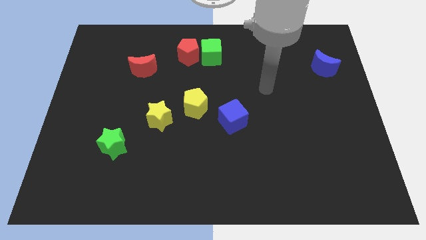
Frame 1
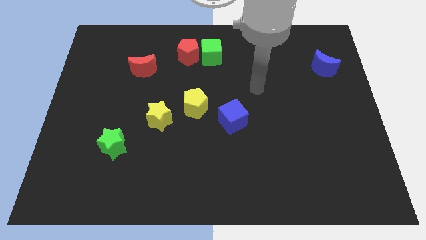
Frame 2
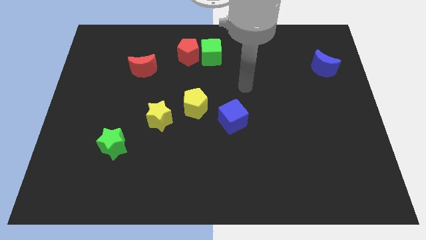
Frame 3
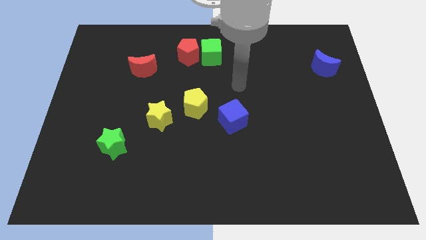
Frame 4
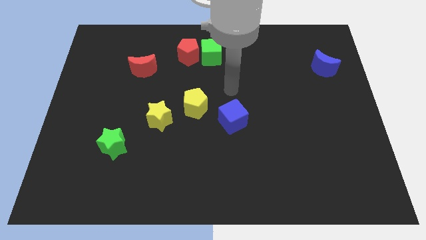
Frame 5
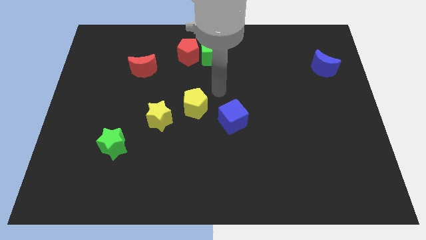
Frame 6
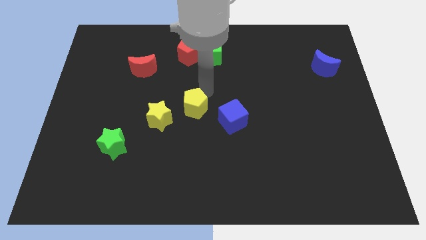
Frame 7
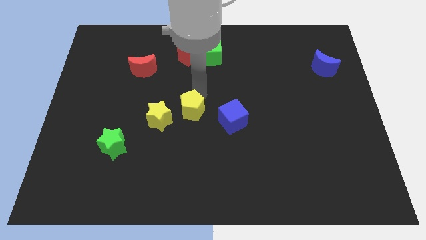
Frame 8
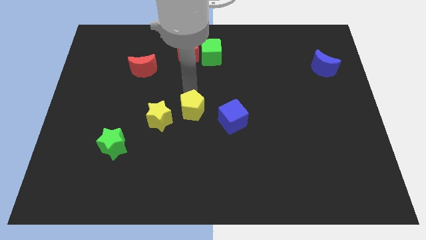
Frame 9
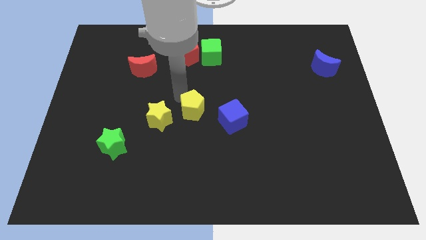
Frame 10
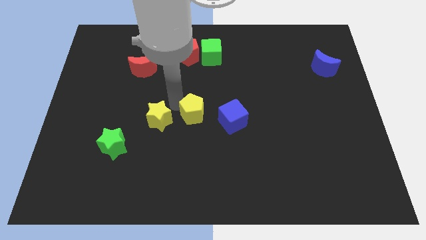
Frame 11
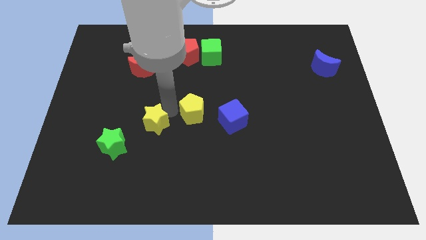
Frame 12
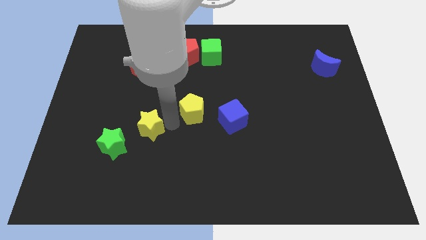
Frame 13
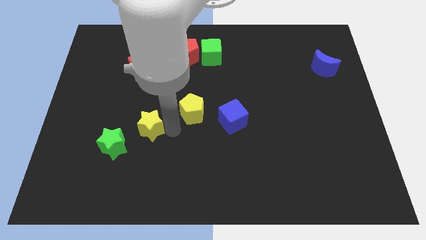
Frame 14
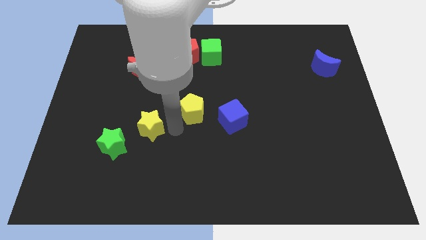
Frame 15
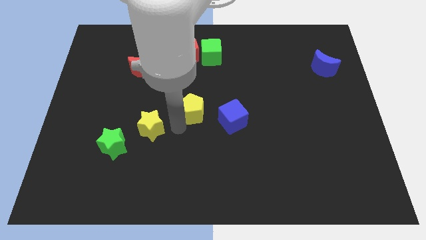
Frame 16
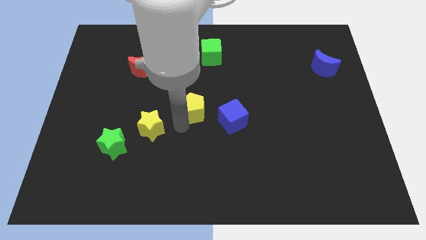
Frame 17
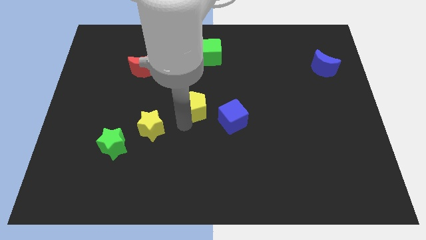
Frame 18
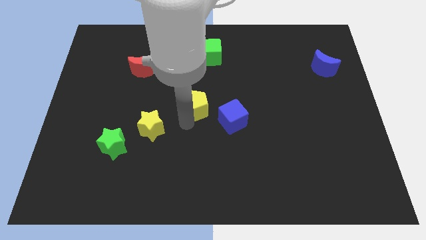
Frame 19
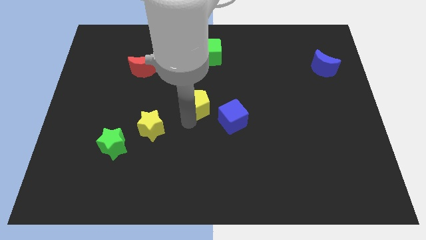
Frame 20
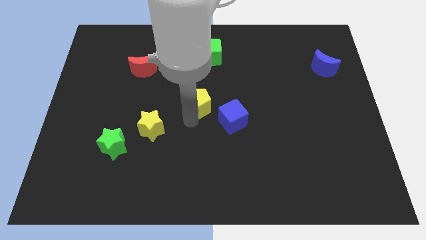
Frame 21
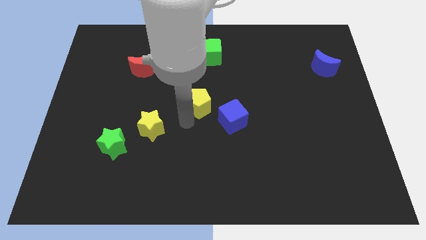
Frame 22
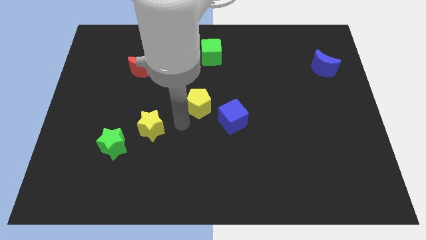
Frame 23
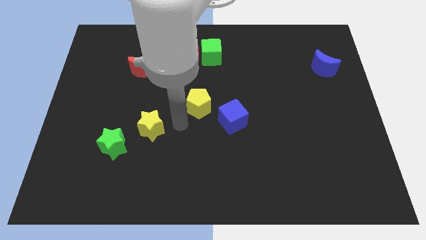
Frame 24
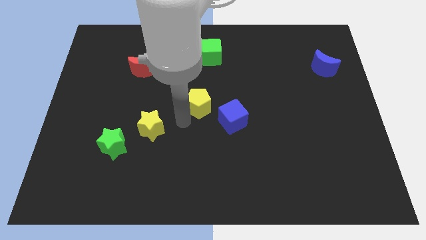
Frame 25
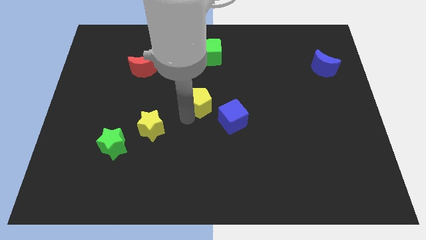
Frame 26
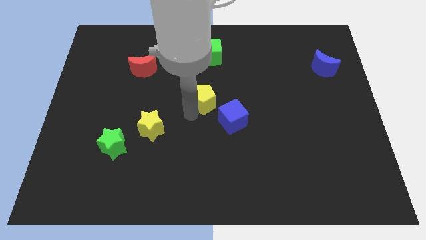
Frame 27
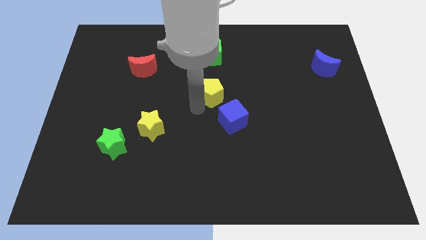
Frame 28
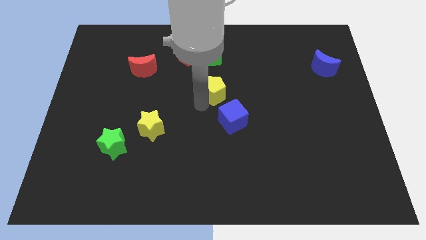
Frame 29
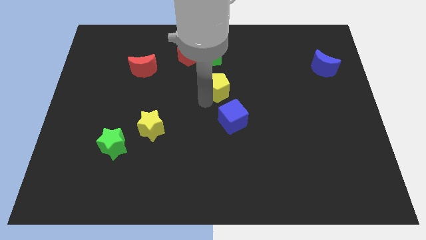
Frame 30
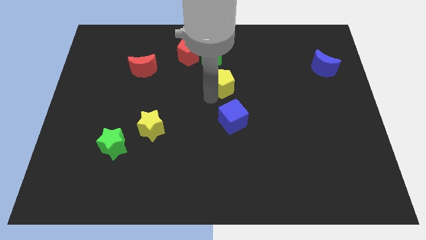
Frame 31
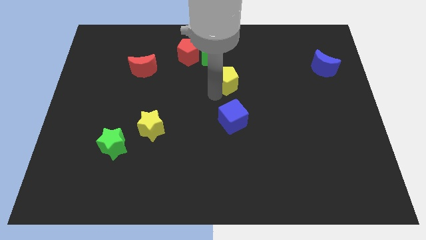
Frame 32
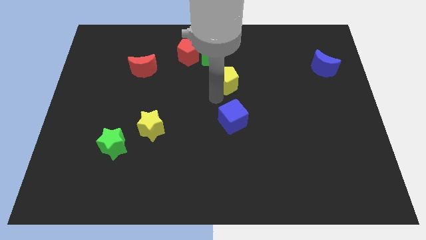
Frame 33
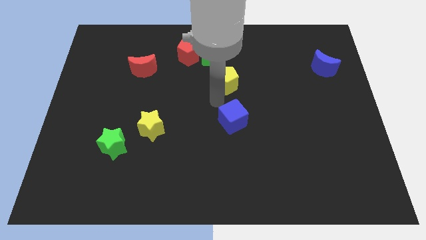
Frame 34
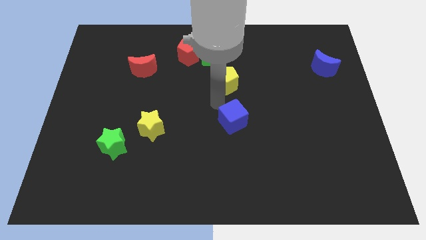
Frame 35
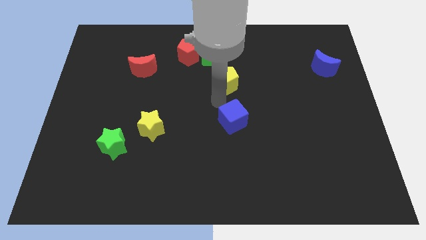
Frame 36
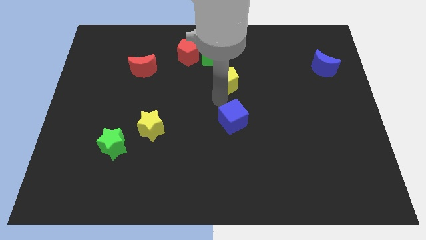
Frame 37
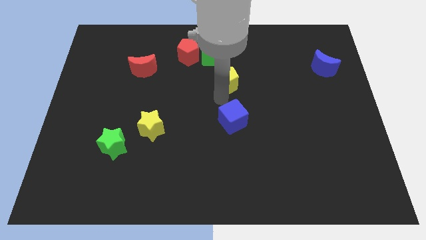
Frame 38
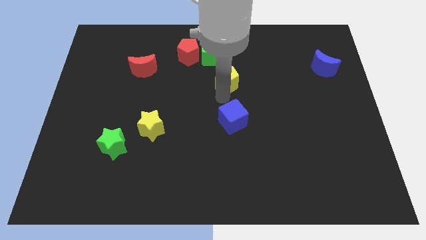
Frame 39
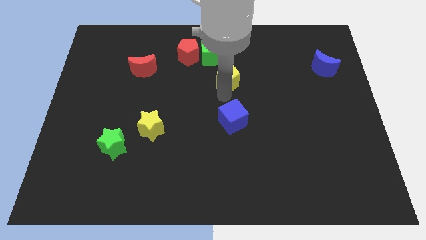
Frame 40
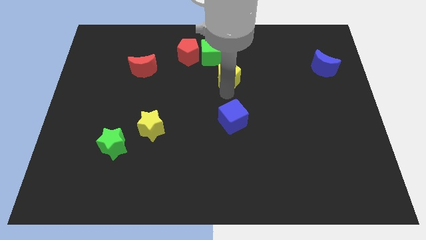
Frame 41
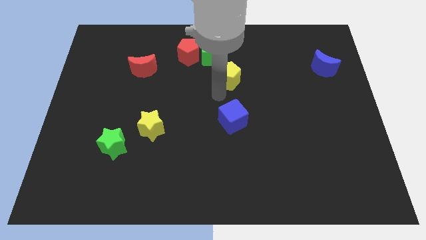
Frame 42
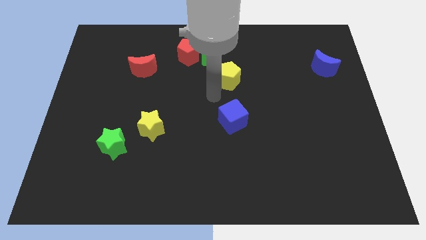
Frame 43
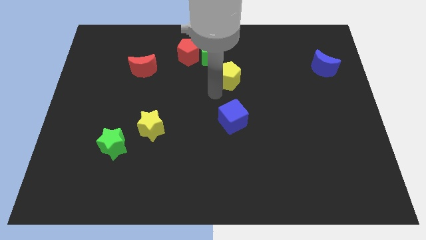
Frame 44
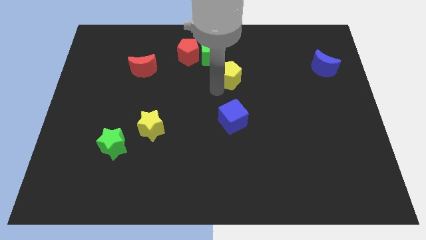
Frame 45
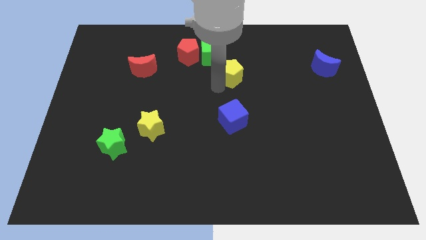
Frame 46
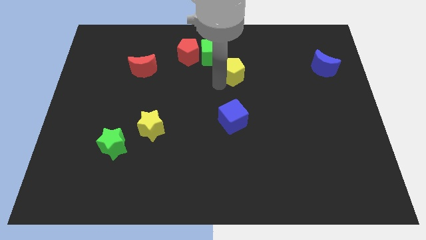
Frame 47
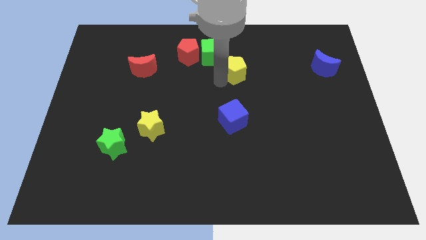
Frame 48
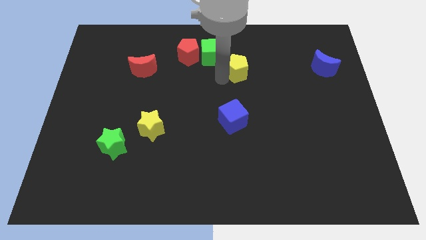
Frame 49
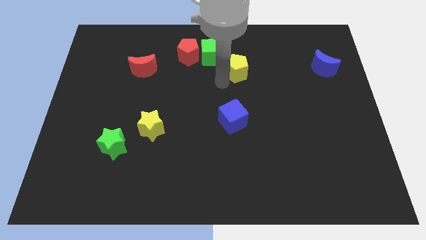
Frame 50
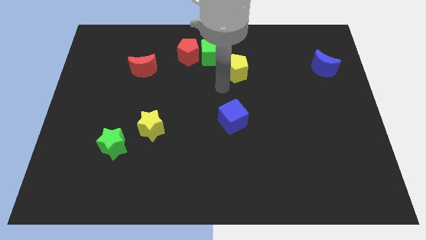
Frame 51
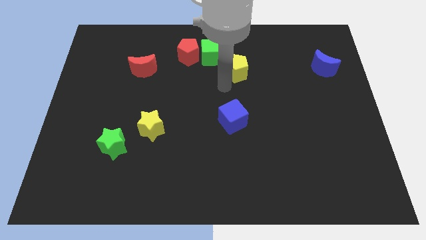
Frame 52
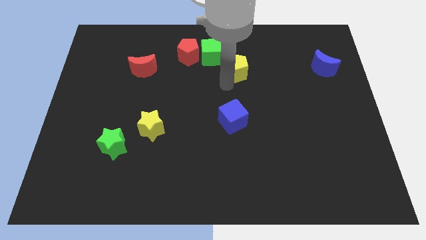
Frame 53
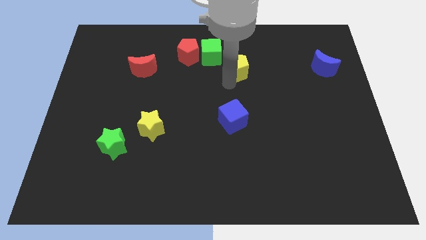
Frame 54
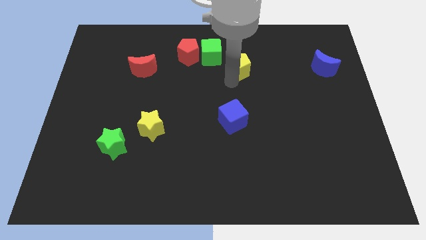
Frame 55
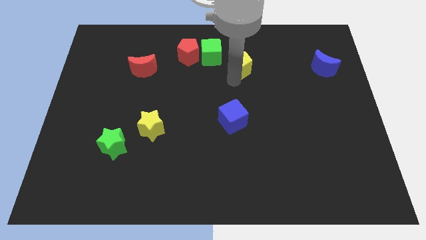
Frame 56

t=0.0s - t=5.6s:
move the yellow pentagon right of the green cube

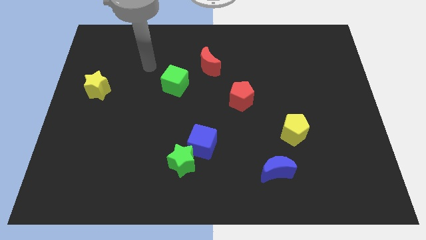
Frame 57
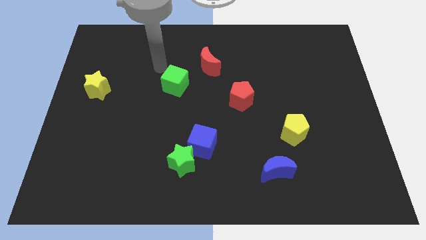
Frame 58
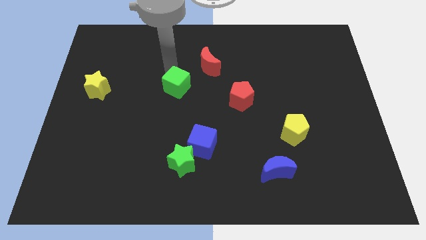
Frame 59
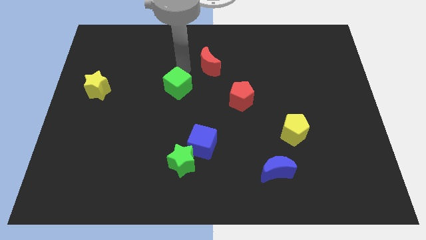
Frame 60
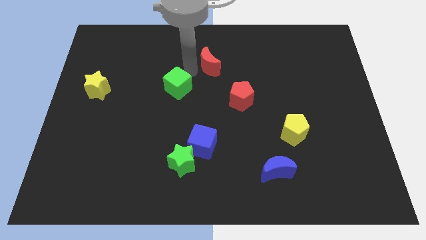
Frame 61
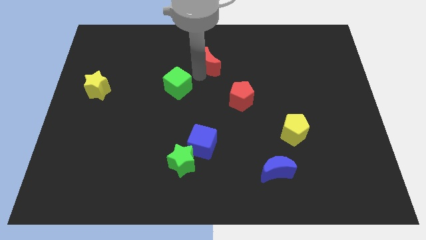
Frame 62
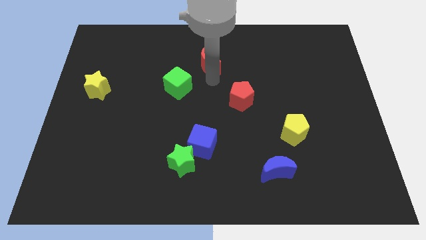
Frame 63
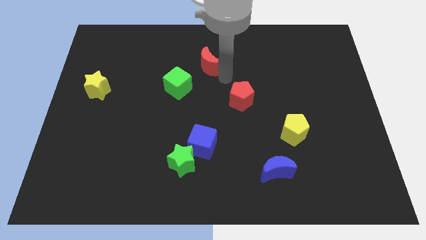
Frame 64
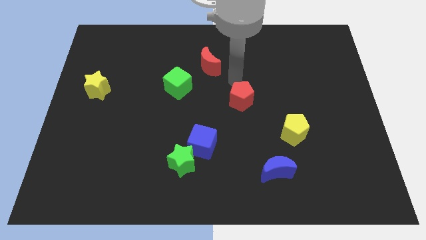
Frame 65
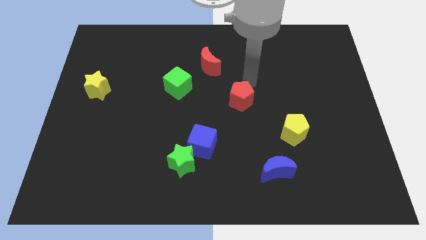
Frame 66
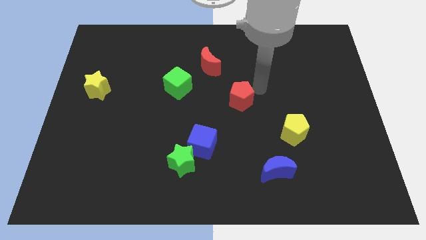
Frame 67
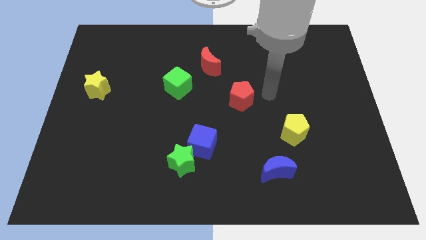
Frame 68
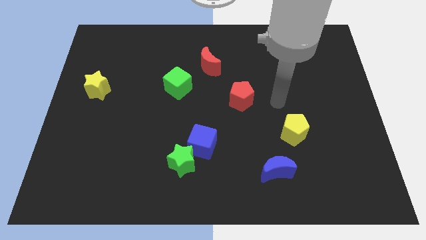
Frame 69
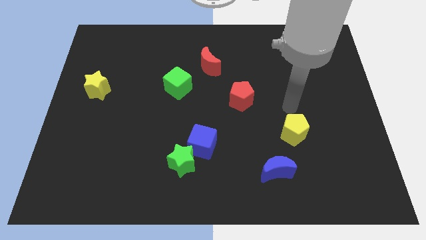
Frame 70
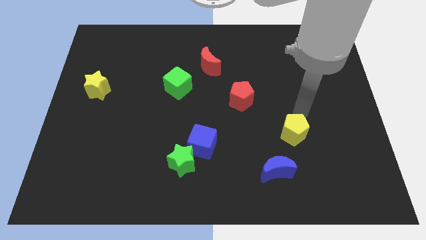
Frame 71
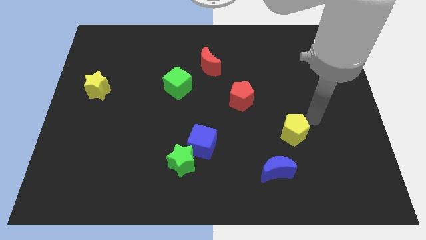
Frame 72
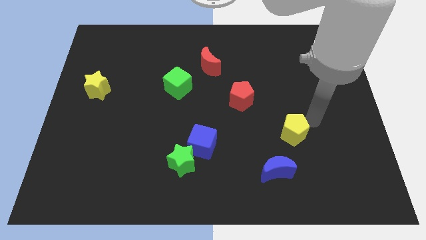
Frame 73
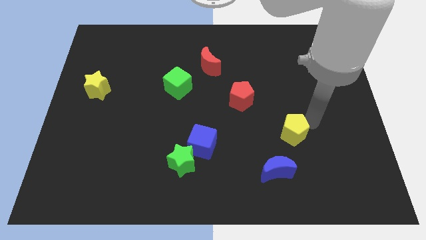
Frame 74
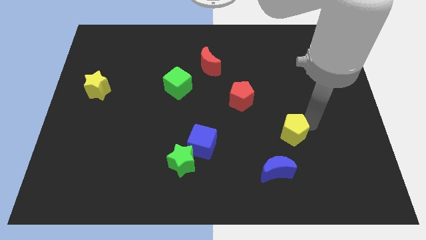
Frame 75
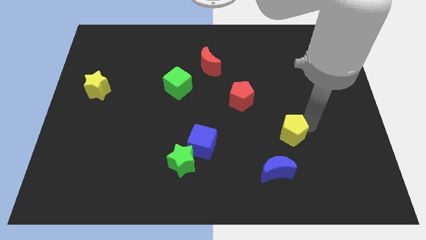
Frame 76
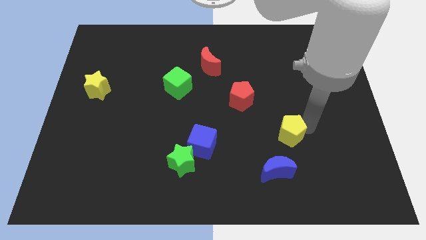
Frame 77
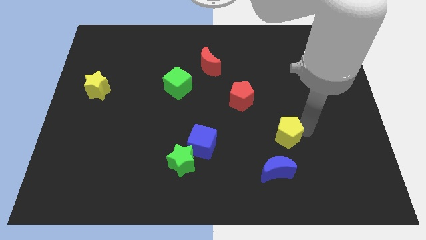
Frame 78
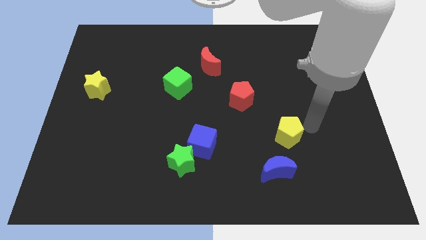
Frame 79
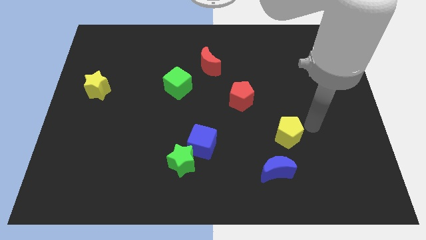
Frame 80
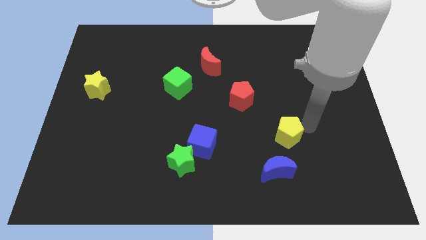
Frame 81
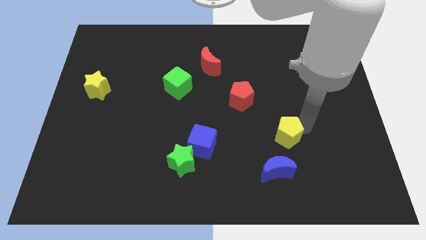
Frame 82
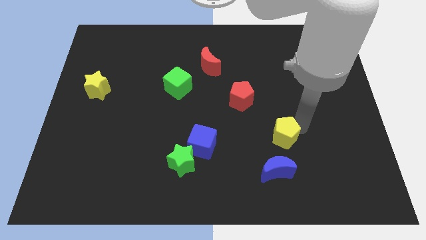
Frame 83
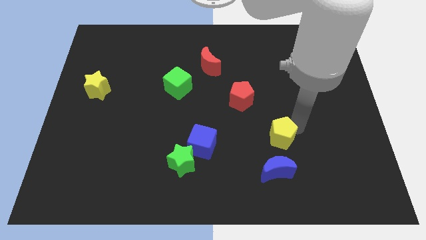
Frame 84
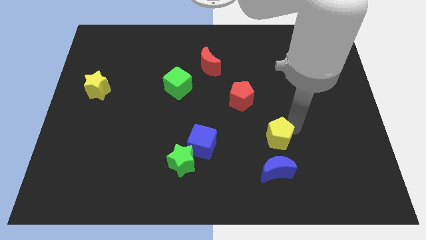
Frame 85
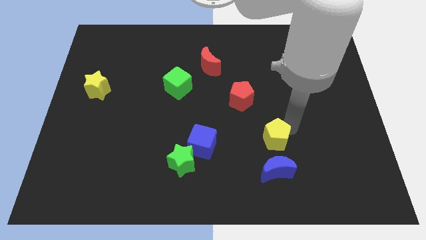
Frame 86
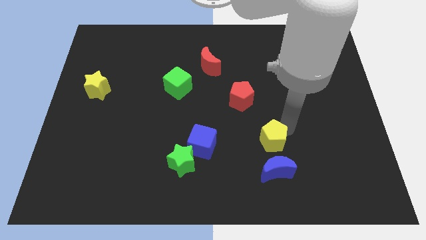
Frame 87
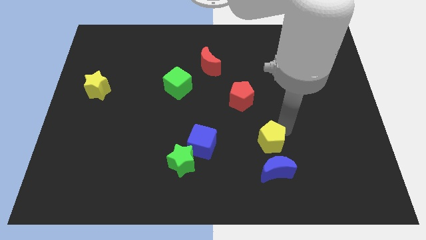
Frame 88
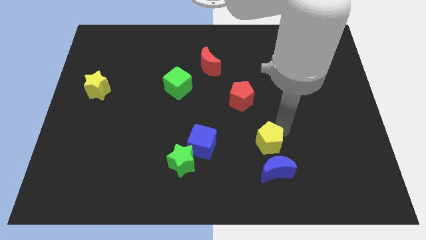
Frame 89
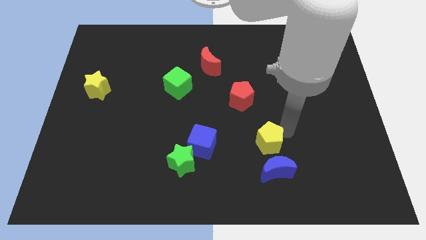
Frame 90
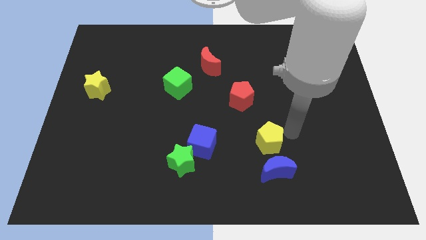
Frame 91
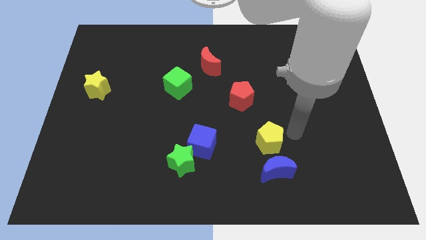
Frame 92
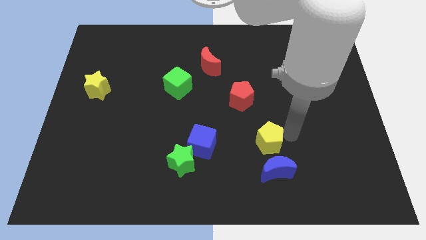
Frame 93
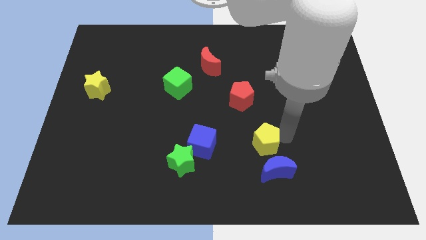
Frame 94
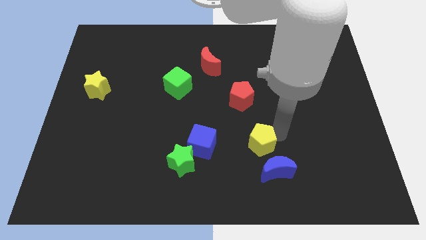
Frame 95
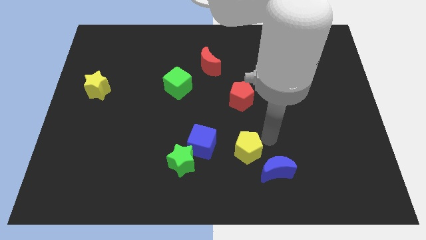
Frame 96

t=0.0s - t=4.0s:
put the yellow pentagon just left of the blue moon
